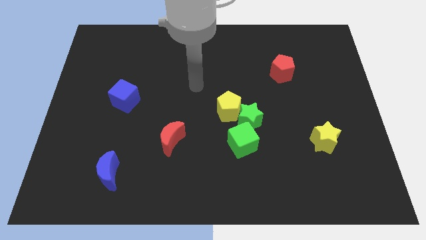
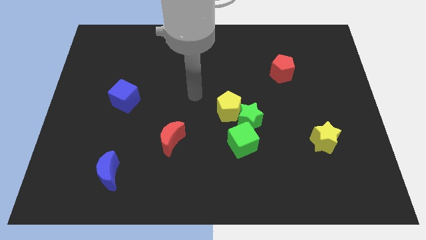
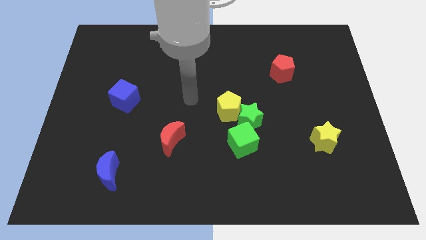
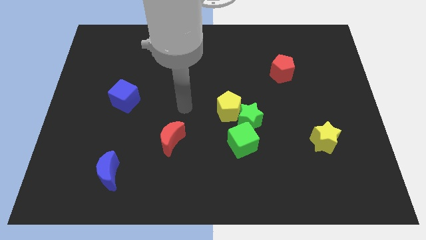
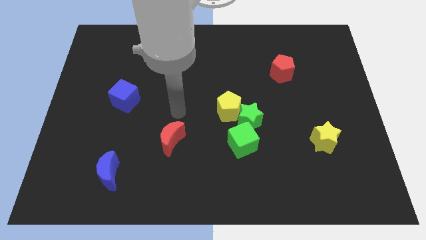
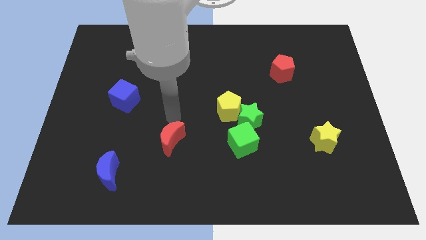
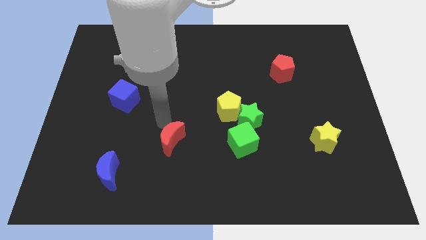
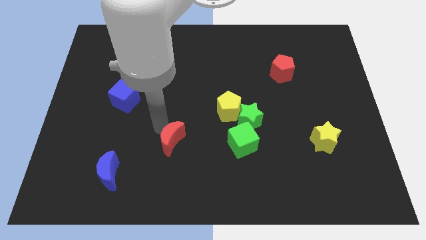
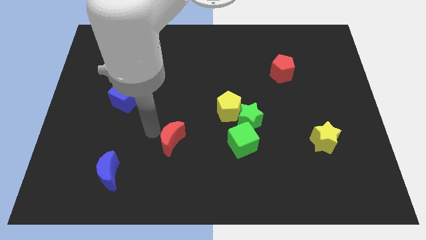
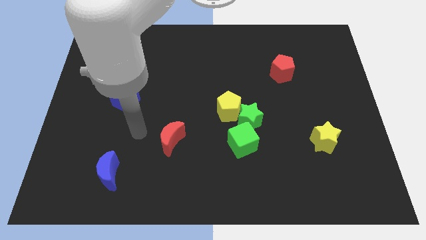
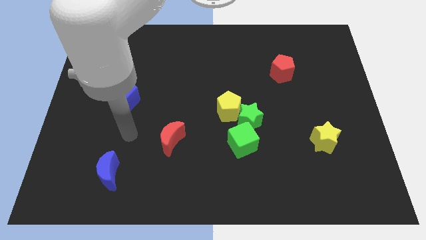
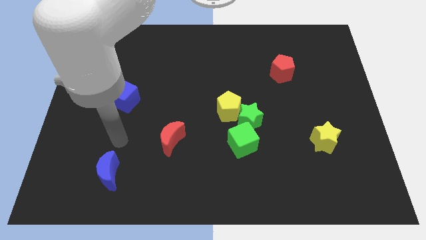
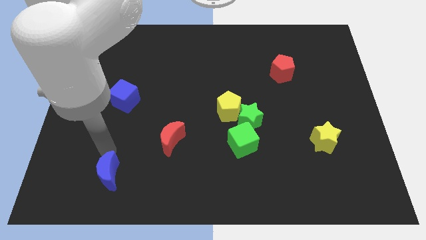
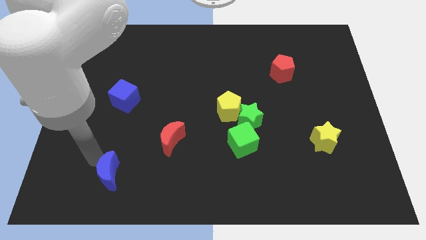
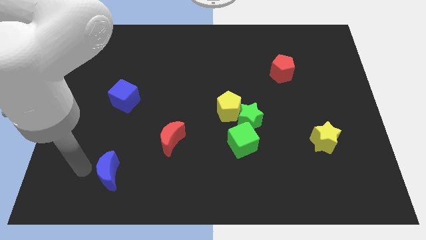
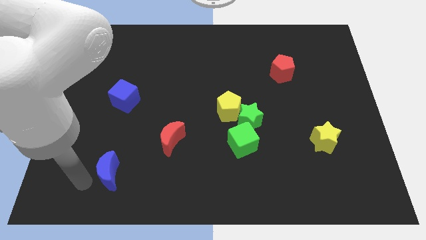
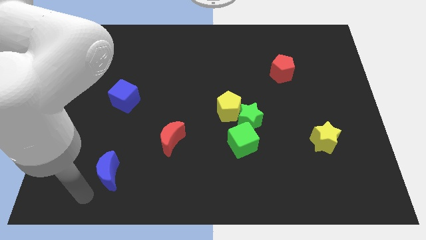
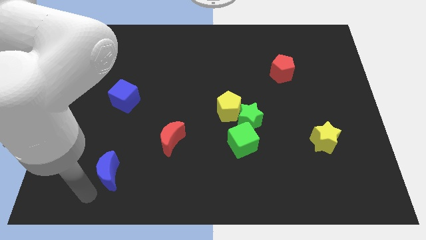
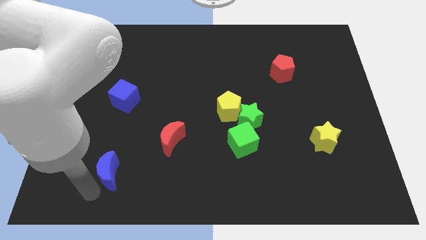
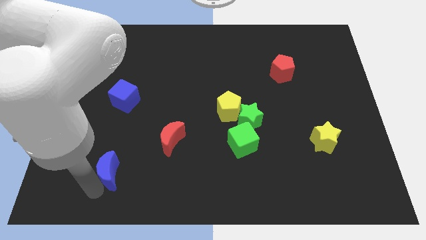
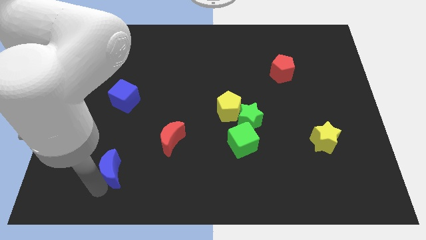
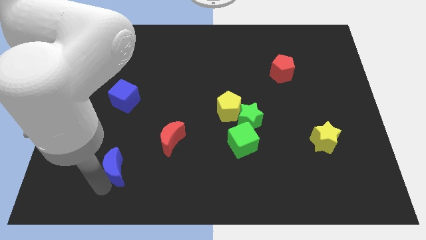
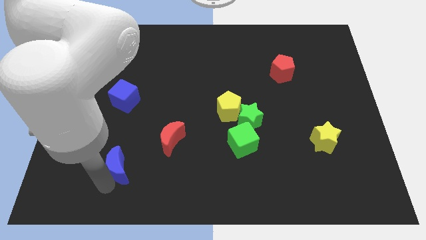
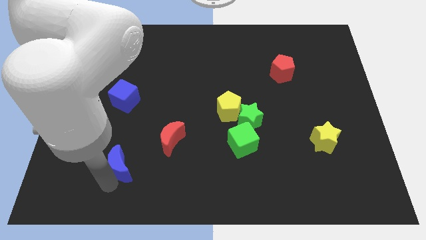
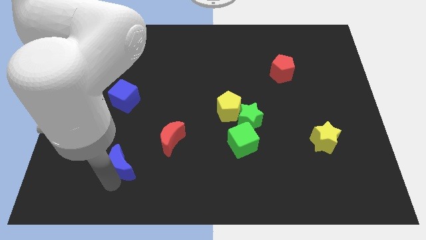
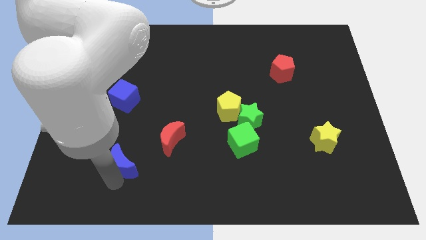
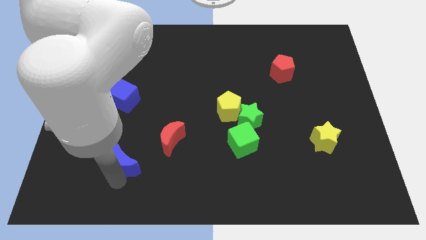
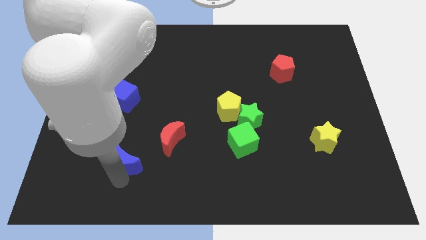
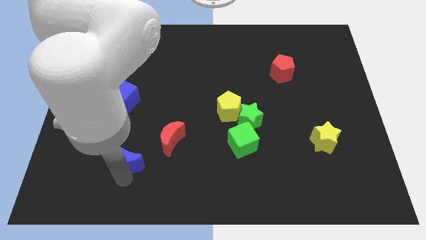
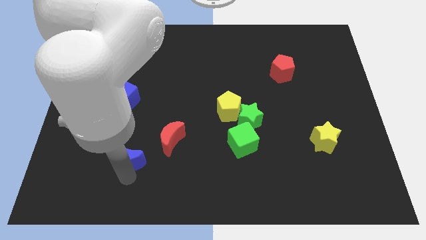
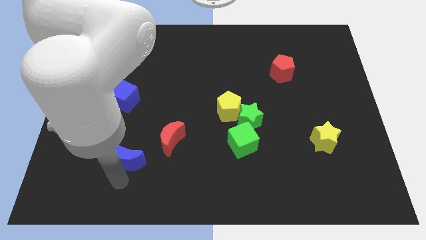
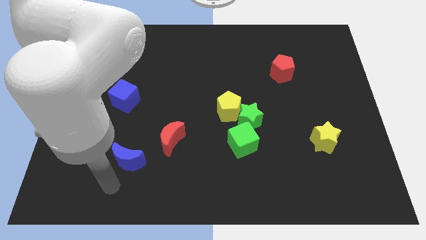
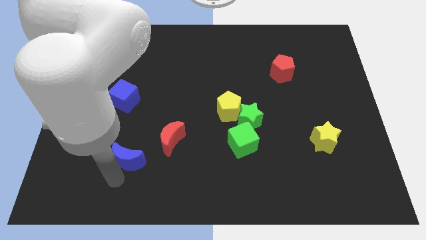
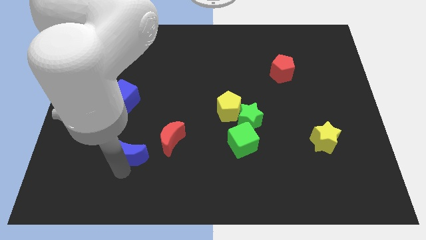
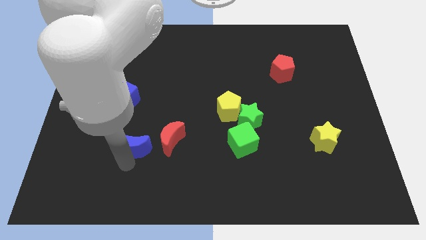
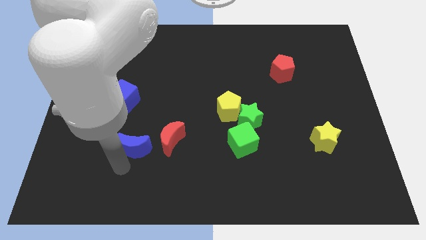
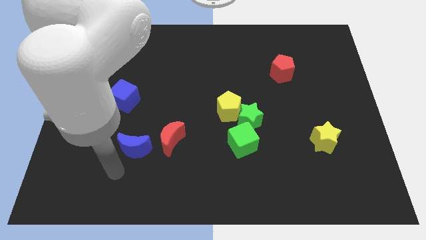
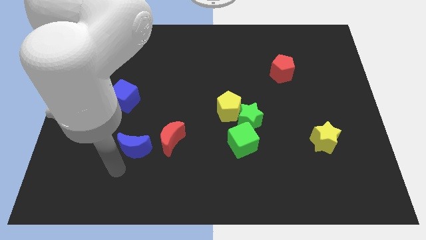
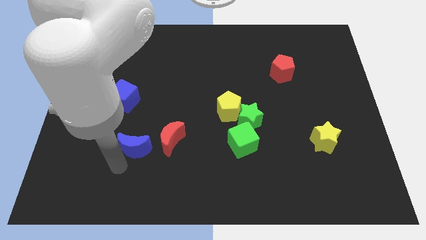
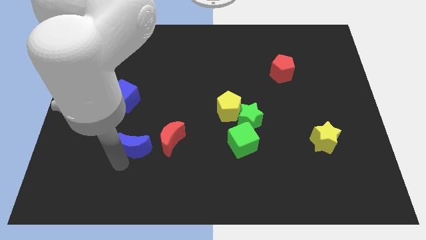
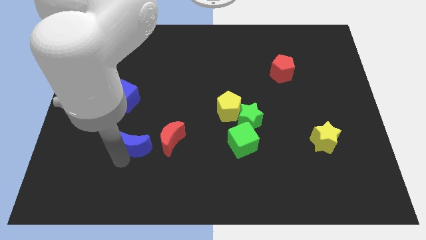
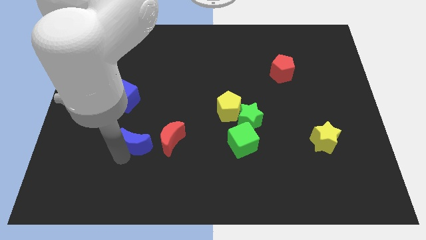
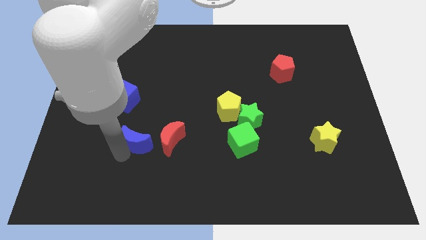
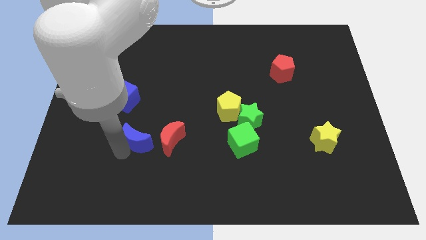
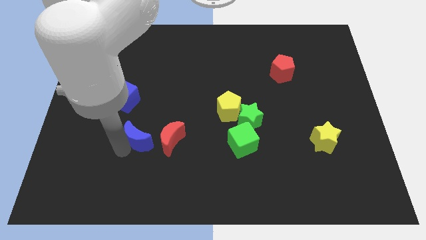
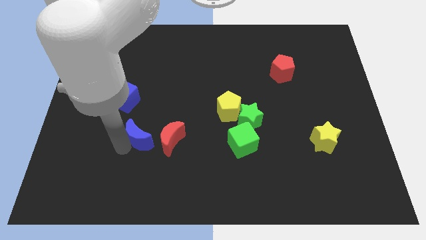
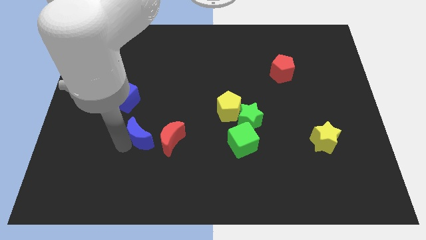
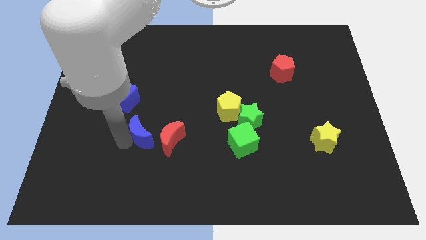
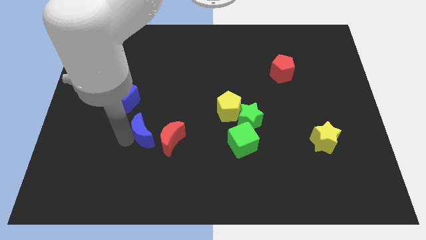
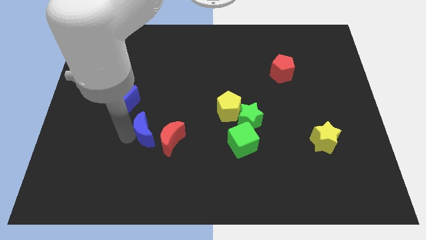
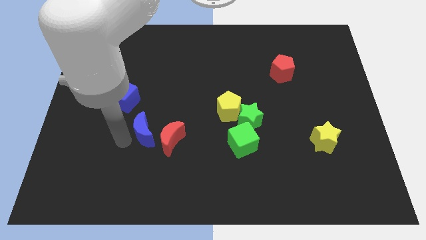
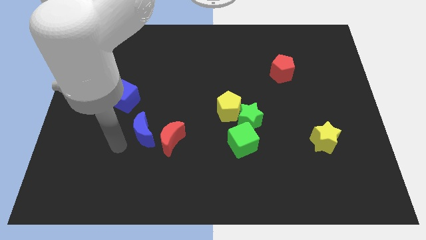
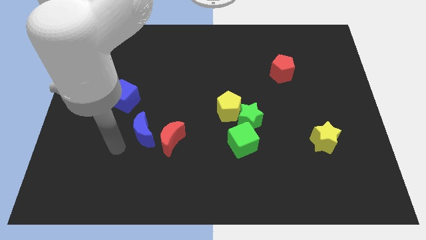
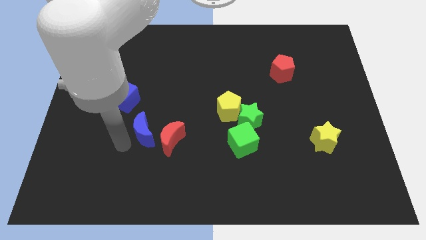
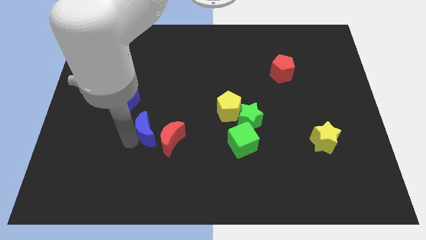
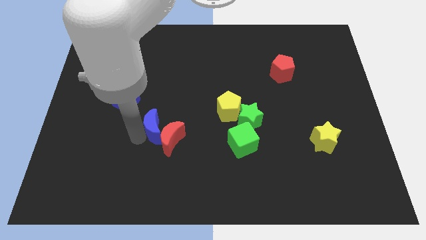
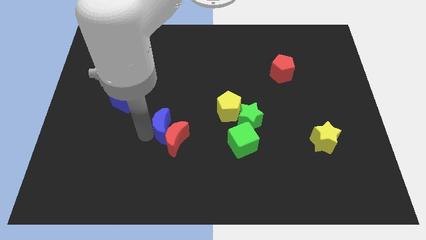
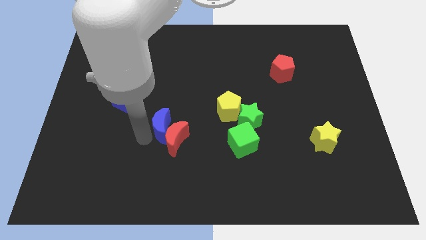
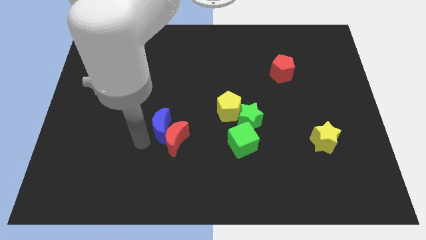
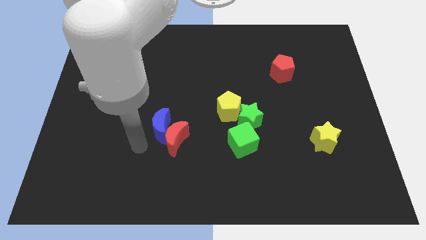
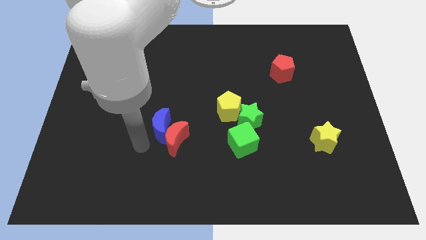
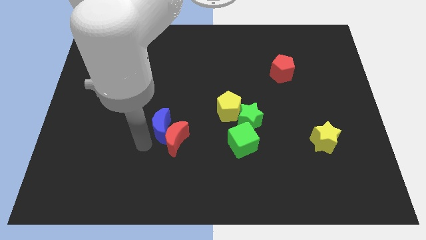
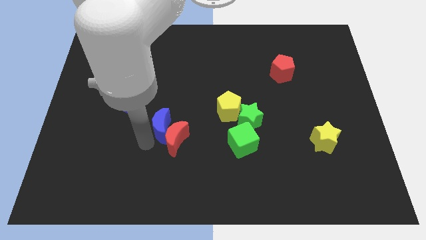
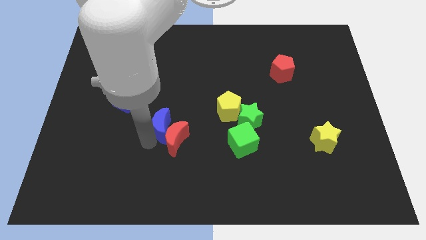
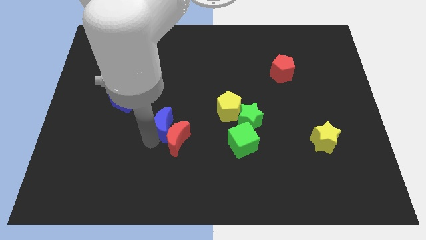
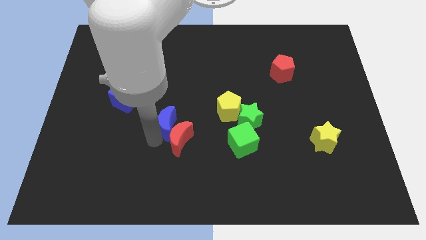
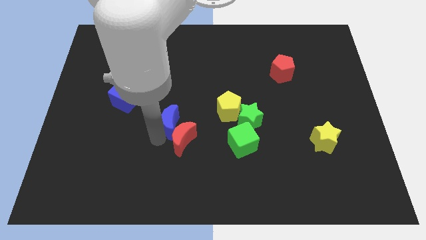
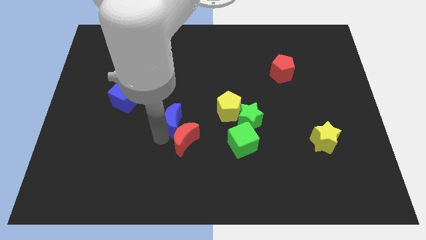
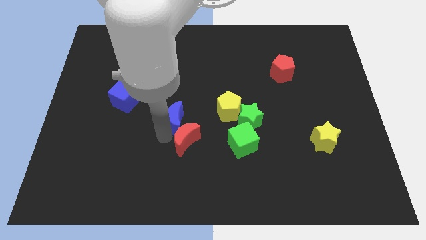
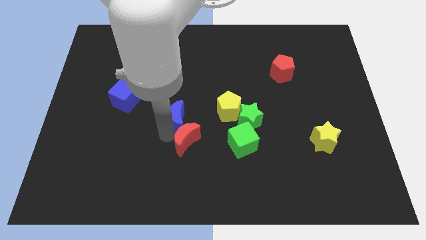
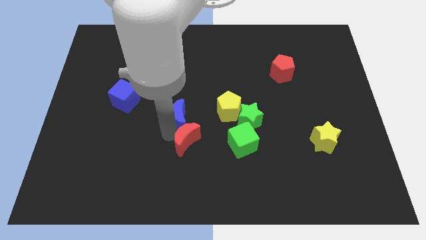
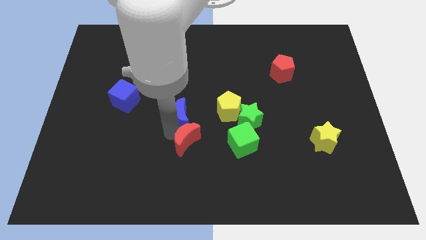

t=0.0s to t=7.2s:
push the blue moon diagonally upwards and to the right

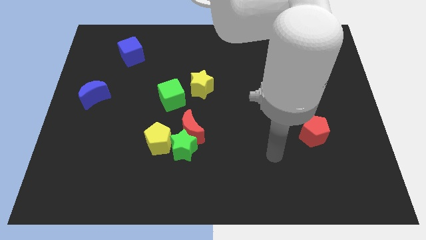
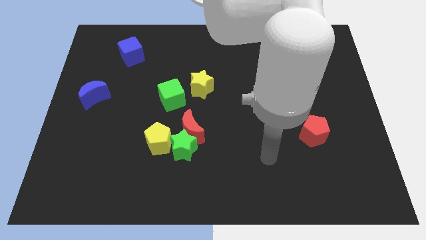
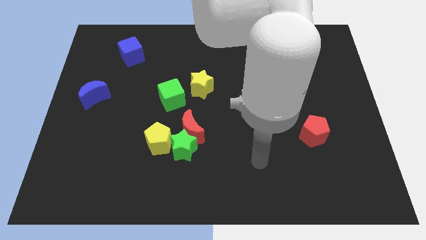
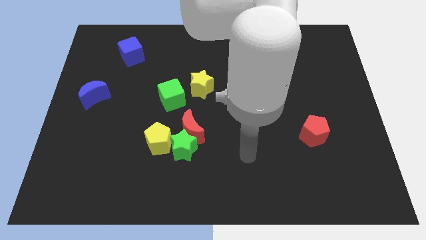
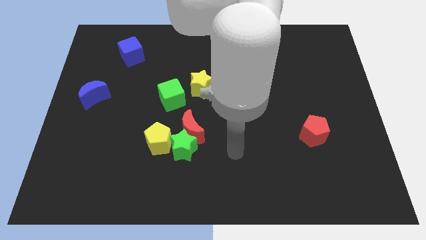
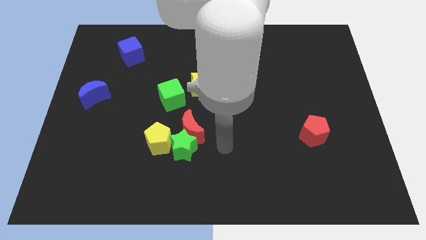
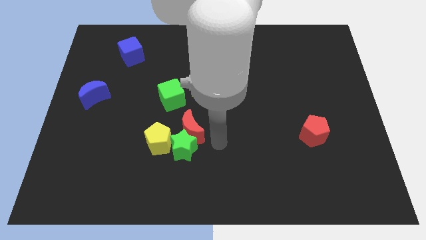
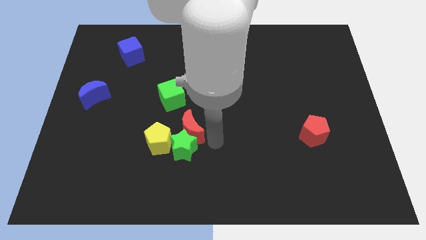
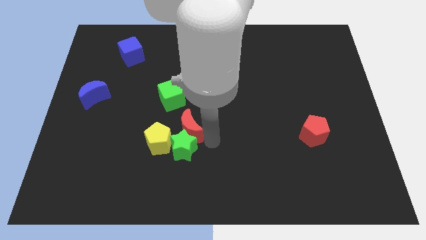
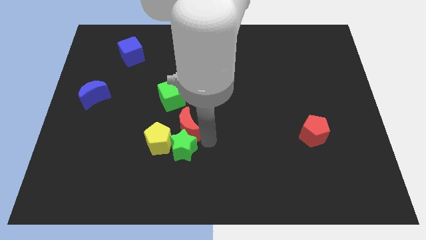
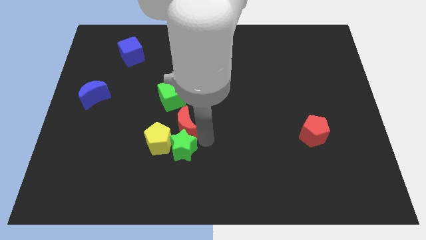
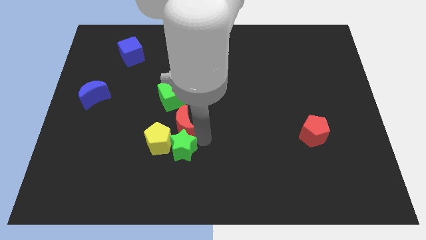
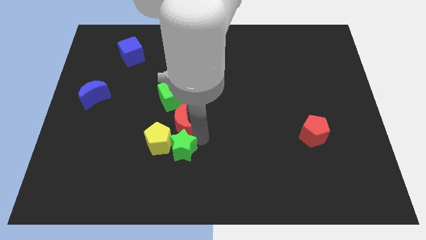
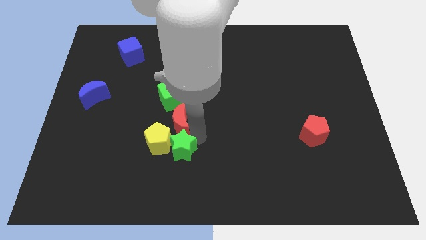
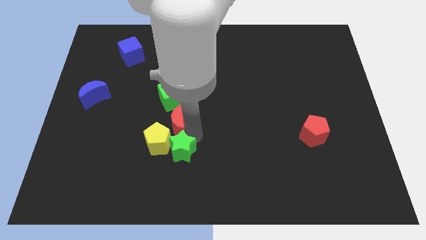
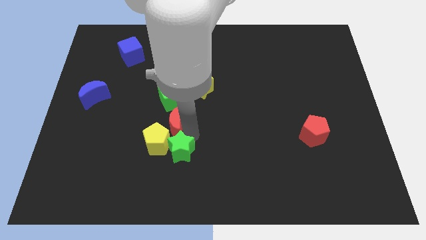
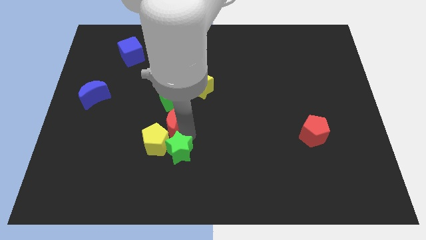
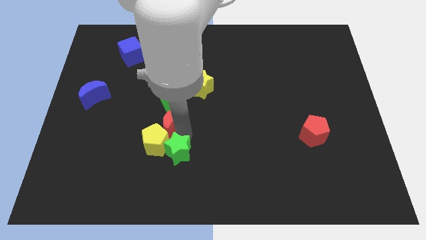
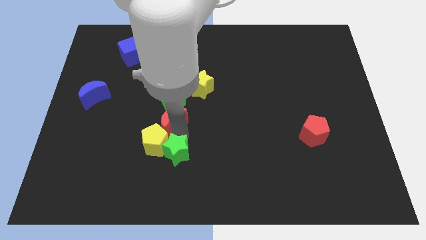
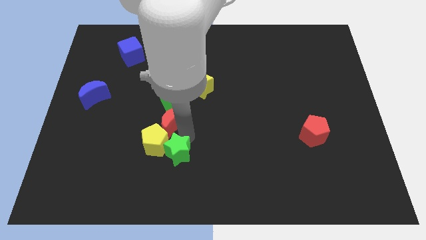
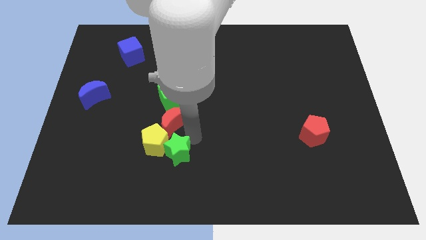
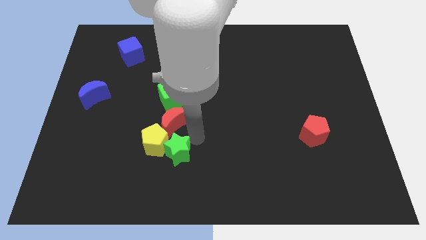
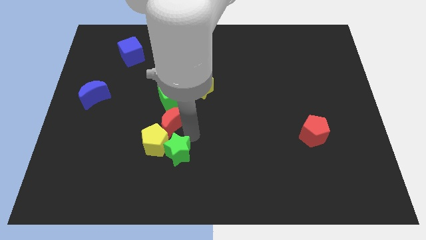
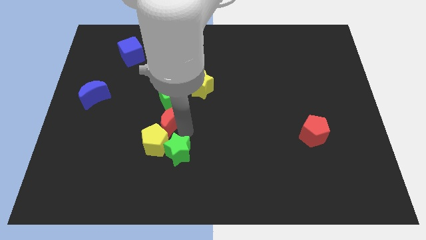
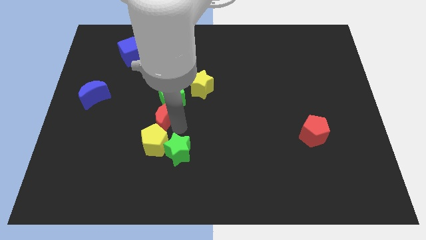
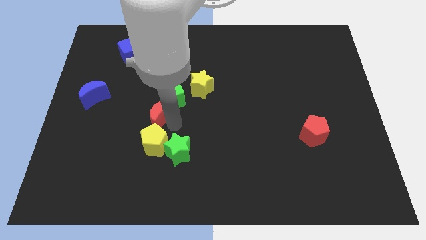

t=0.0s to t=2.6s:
move the red moon a little bit up and to the left diagonally
